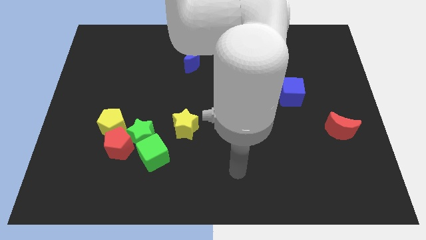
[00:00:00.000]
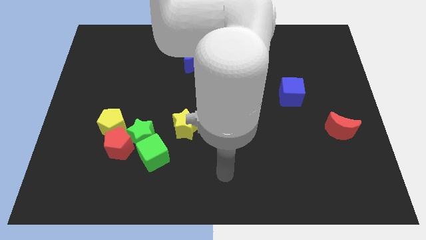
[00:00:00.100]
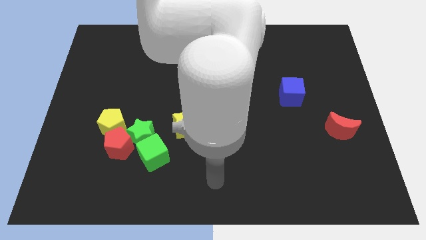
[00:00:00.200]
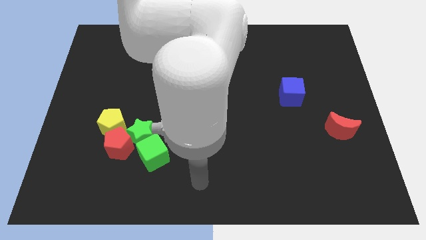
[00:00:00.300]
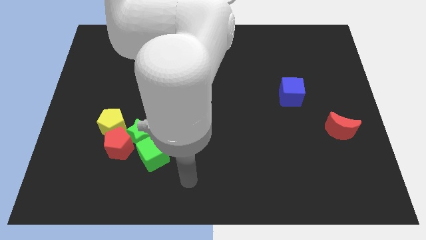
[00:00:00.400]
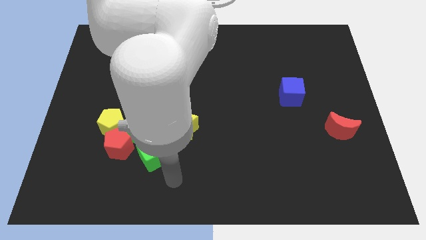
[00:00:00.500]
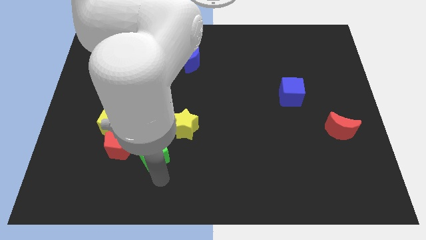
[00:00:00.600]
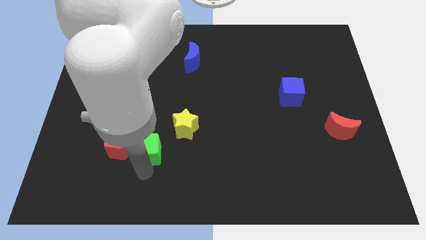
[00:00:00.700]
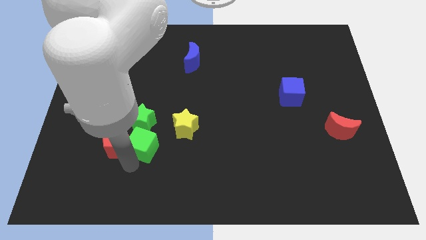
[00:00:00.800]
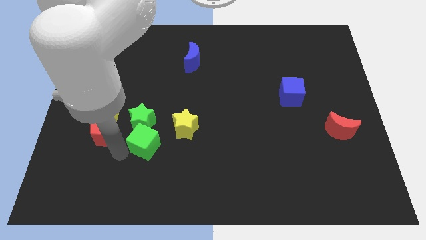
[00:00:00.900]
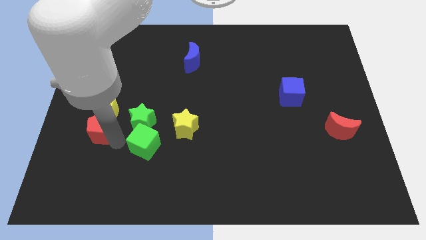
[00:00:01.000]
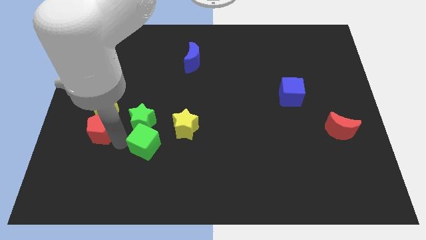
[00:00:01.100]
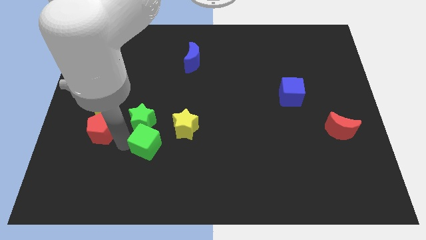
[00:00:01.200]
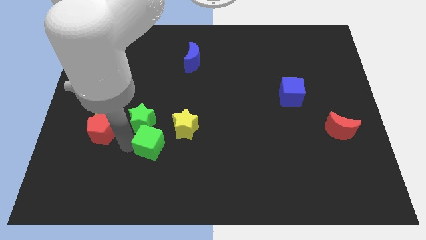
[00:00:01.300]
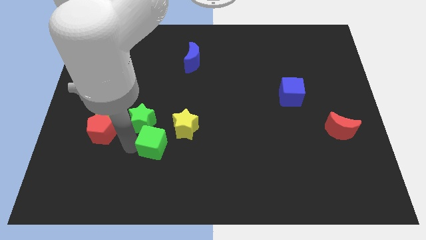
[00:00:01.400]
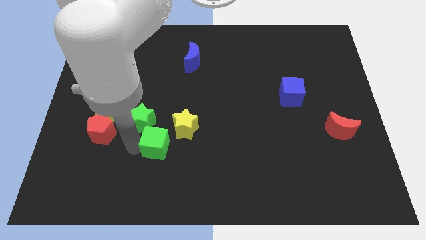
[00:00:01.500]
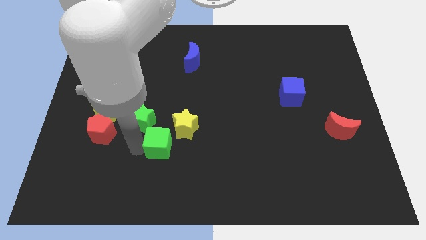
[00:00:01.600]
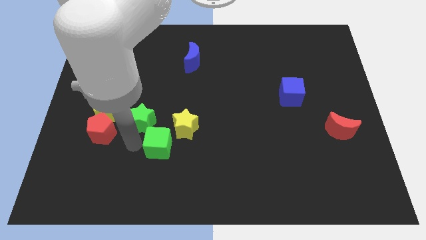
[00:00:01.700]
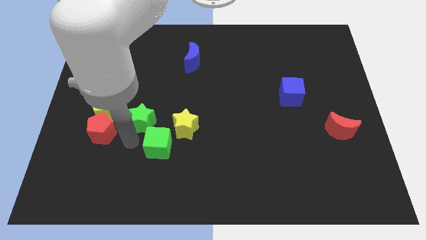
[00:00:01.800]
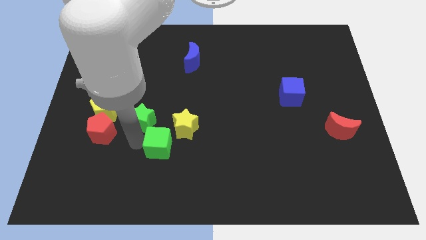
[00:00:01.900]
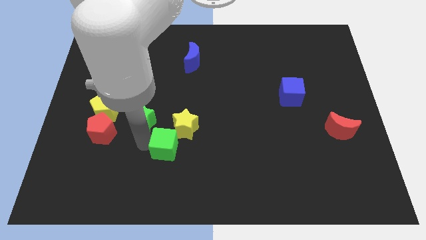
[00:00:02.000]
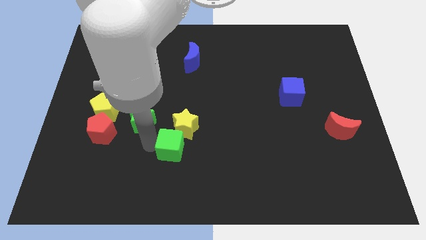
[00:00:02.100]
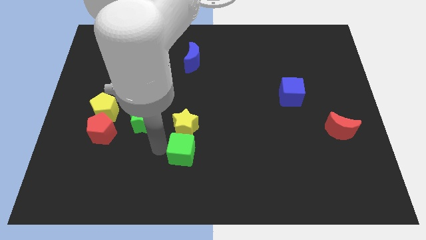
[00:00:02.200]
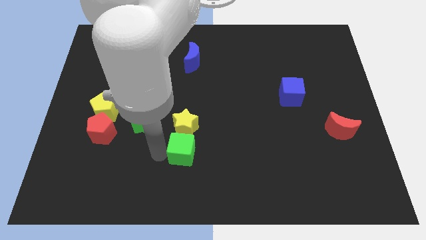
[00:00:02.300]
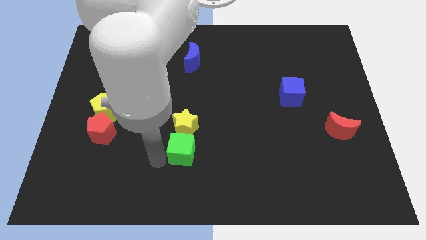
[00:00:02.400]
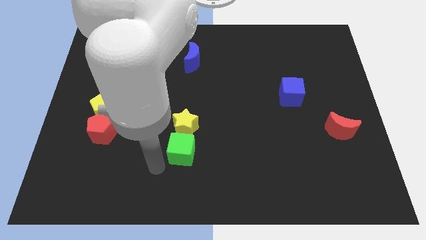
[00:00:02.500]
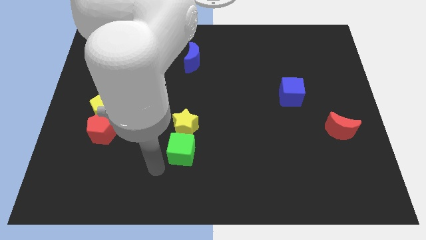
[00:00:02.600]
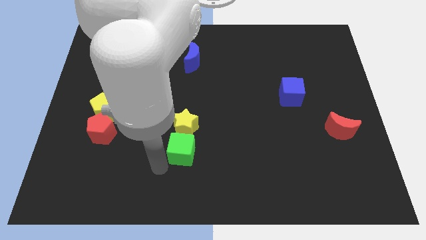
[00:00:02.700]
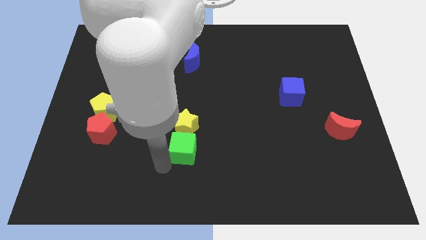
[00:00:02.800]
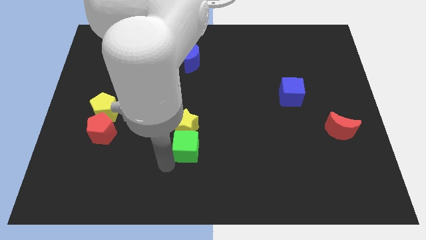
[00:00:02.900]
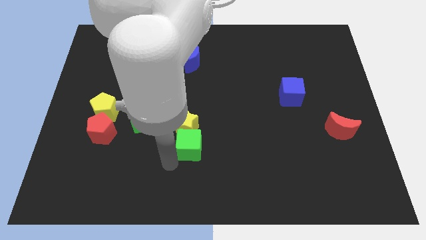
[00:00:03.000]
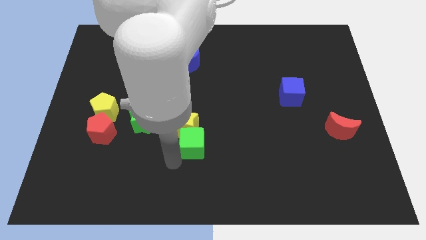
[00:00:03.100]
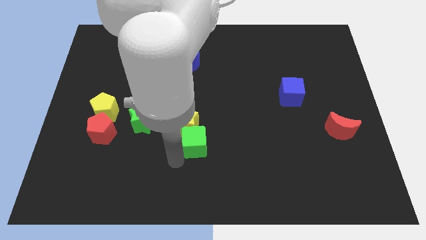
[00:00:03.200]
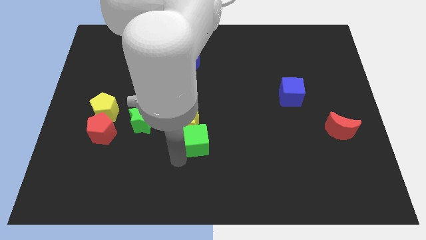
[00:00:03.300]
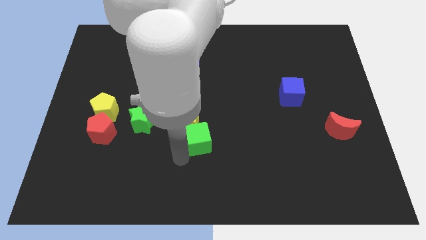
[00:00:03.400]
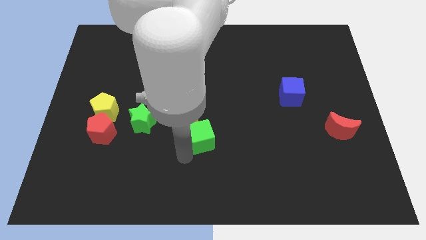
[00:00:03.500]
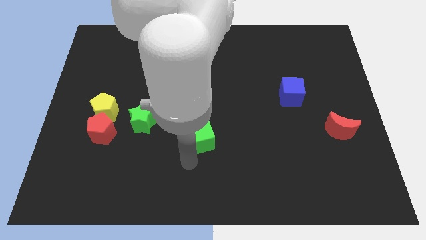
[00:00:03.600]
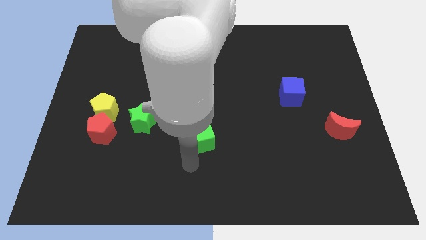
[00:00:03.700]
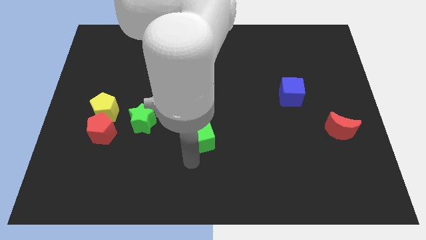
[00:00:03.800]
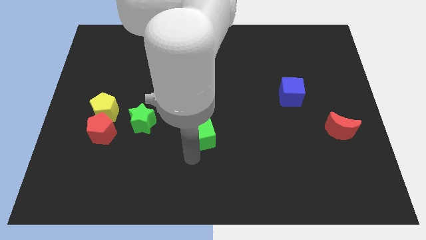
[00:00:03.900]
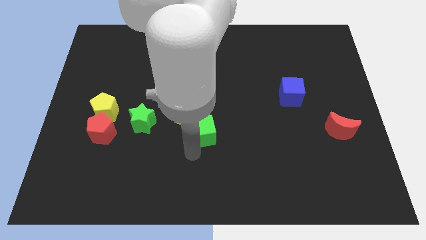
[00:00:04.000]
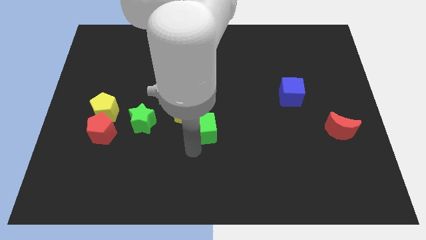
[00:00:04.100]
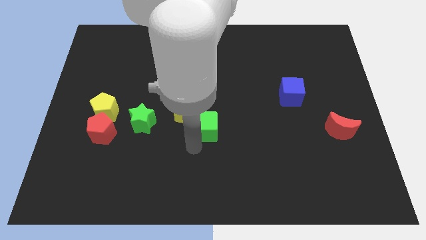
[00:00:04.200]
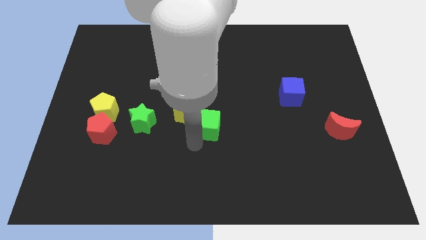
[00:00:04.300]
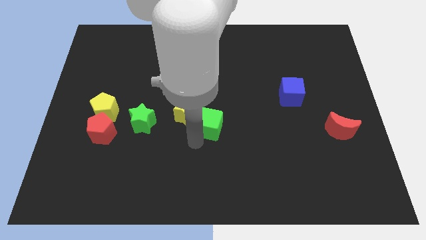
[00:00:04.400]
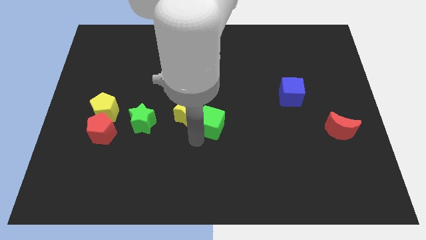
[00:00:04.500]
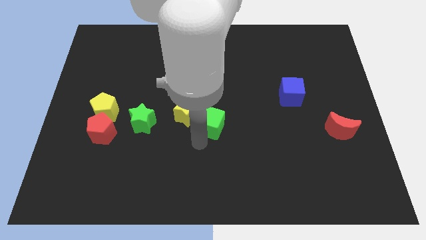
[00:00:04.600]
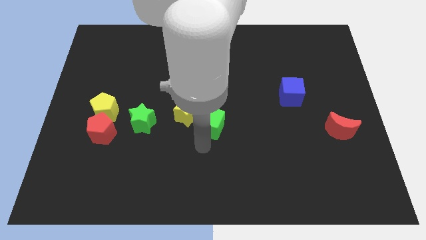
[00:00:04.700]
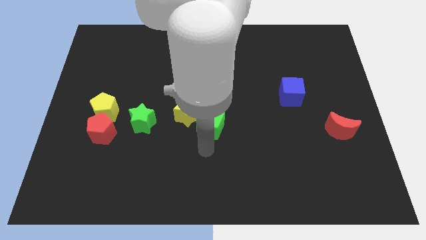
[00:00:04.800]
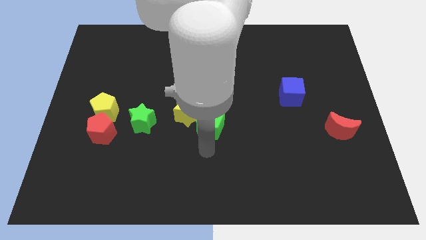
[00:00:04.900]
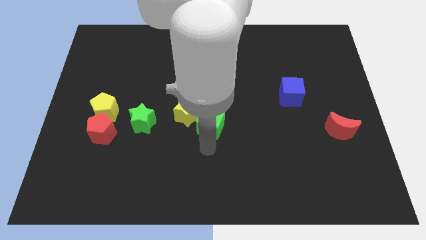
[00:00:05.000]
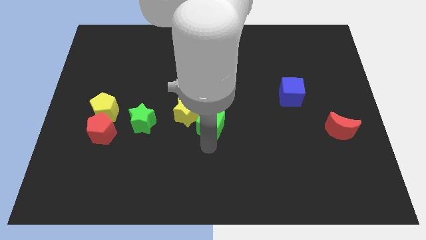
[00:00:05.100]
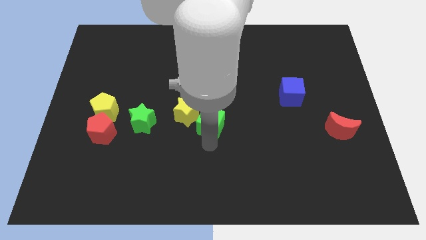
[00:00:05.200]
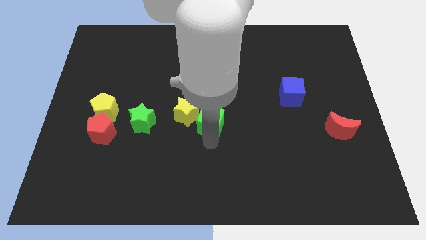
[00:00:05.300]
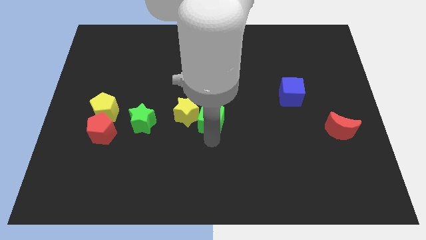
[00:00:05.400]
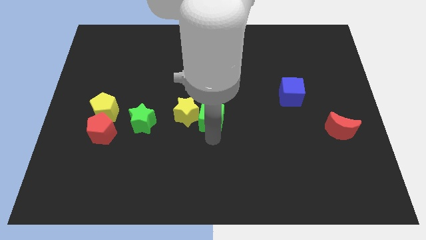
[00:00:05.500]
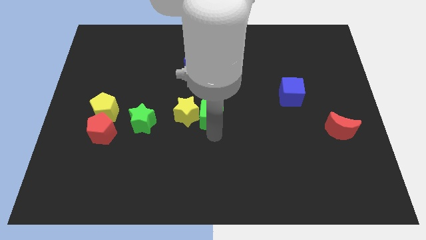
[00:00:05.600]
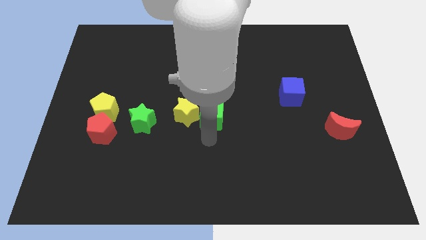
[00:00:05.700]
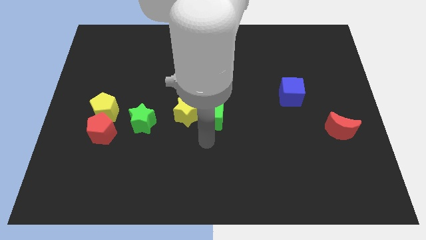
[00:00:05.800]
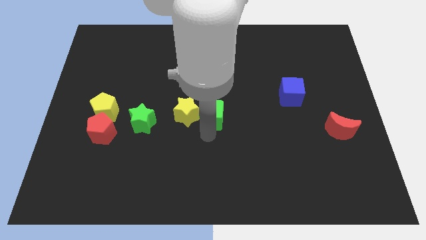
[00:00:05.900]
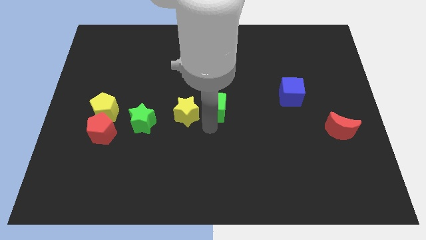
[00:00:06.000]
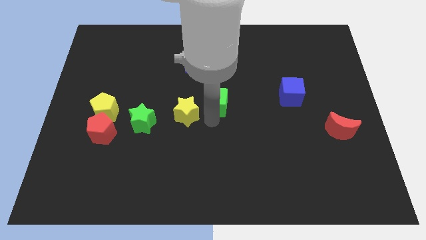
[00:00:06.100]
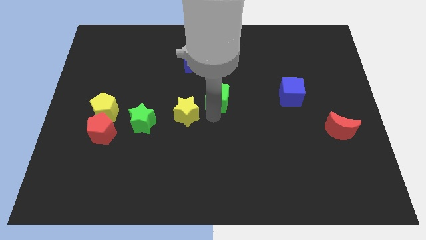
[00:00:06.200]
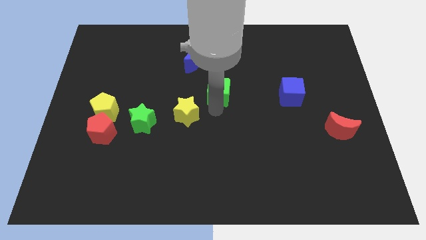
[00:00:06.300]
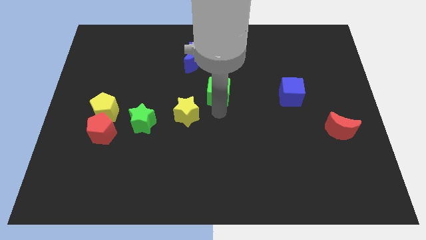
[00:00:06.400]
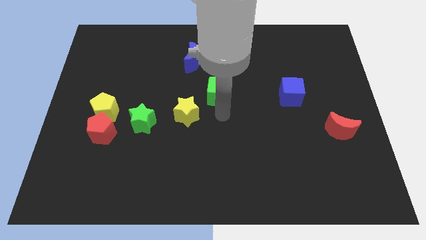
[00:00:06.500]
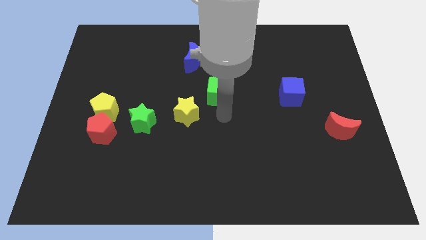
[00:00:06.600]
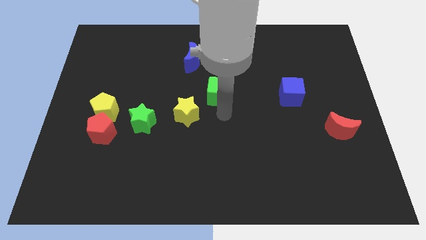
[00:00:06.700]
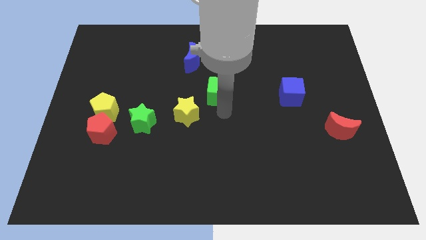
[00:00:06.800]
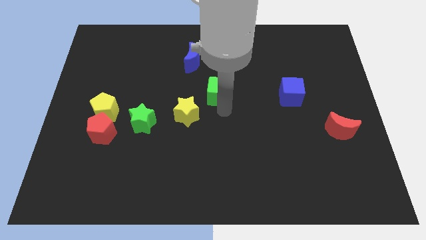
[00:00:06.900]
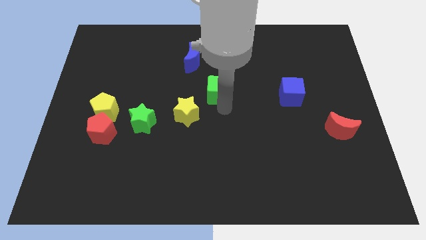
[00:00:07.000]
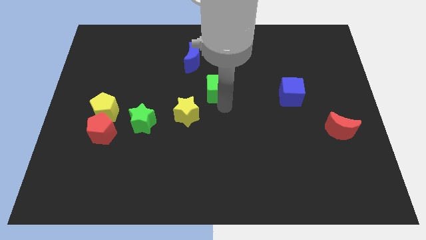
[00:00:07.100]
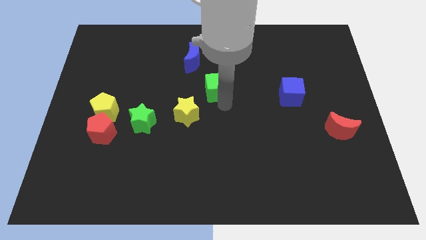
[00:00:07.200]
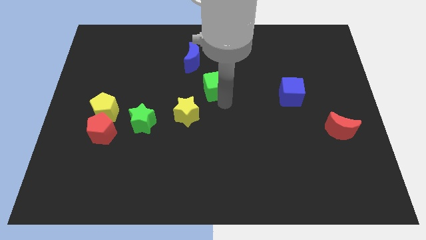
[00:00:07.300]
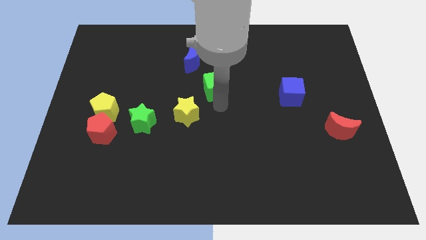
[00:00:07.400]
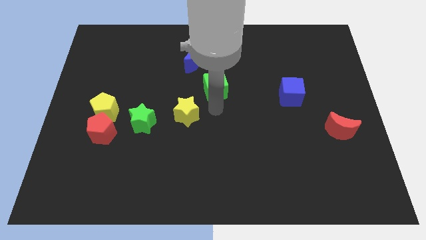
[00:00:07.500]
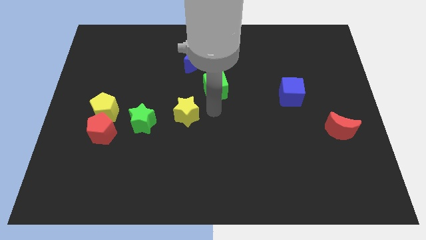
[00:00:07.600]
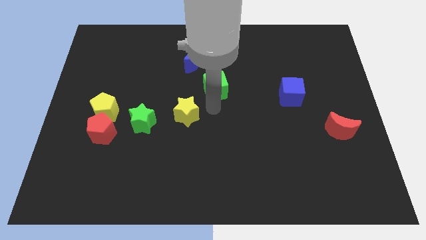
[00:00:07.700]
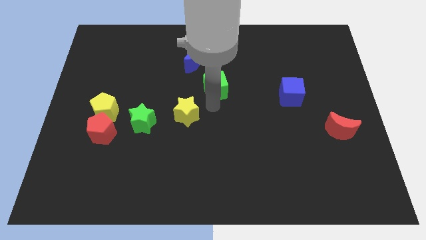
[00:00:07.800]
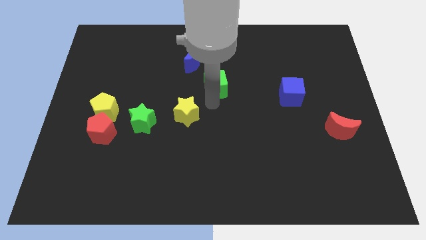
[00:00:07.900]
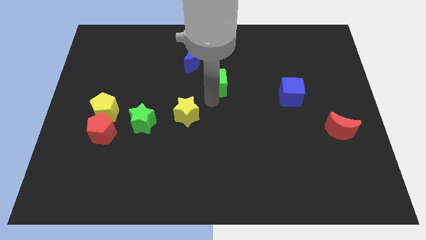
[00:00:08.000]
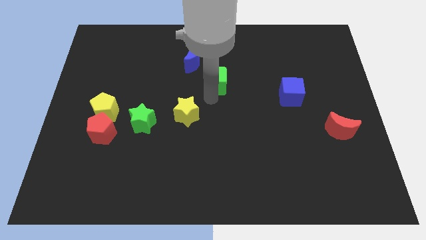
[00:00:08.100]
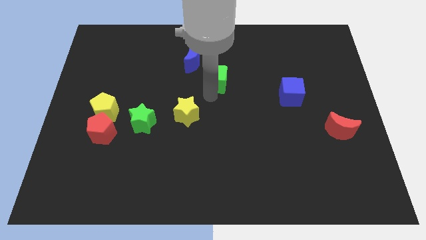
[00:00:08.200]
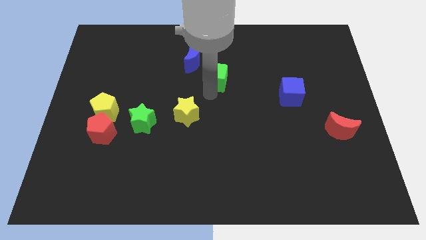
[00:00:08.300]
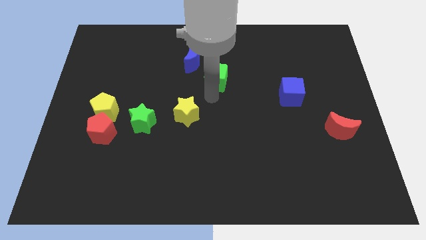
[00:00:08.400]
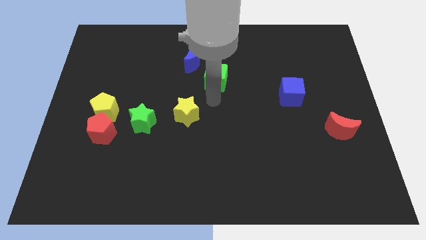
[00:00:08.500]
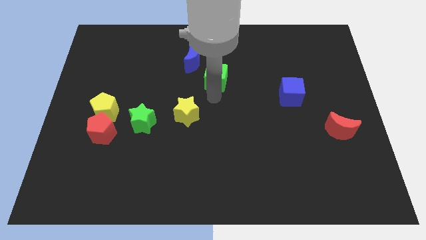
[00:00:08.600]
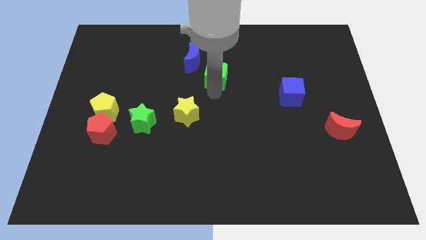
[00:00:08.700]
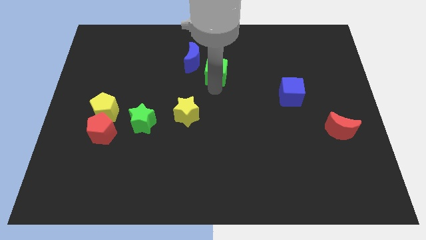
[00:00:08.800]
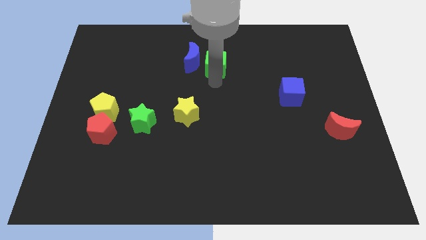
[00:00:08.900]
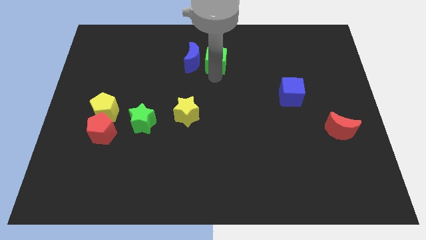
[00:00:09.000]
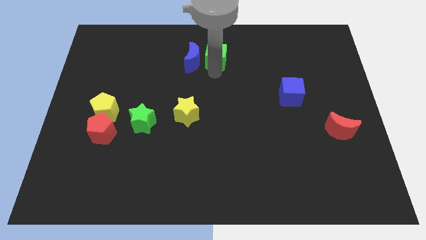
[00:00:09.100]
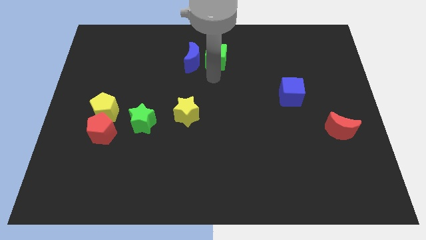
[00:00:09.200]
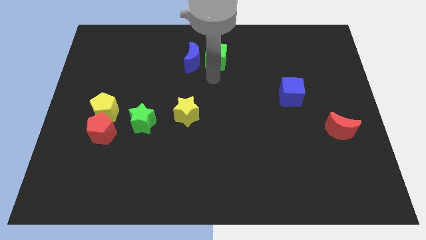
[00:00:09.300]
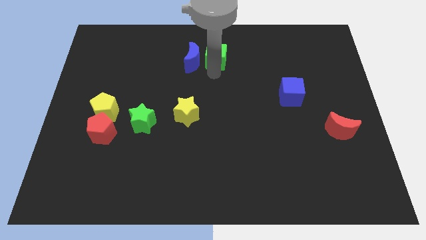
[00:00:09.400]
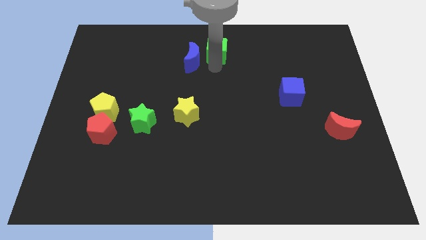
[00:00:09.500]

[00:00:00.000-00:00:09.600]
slide the green cube to the top
